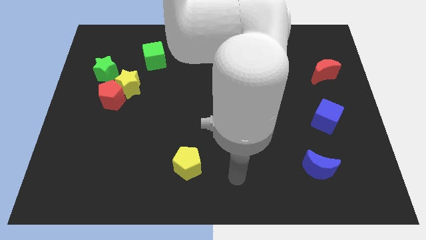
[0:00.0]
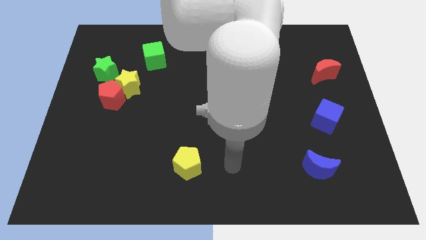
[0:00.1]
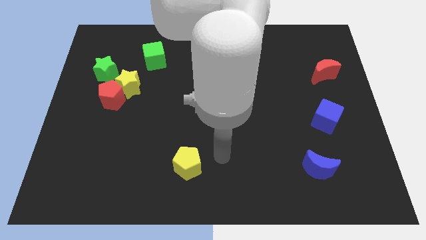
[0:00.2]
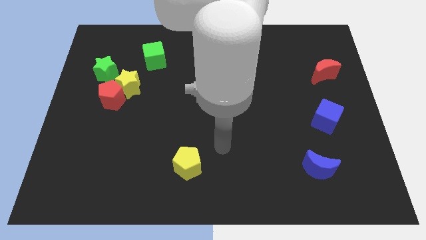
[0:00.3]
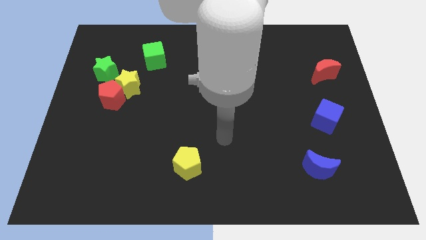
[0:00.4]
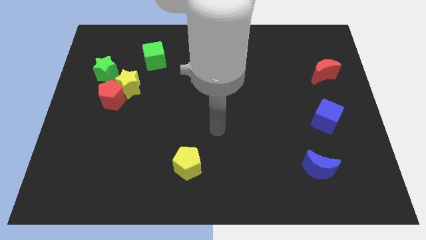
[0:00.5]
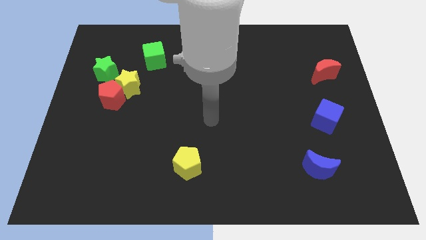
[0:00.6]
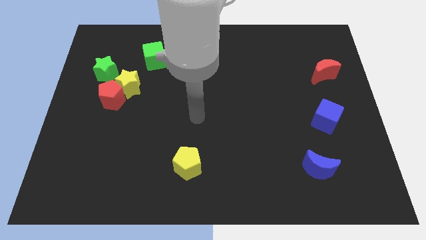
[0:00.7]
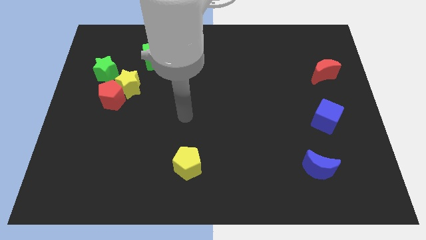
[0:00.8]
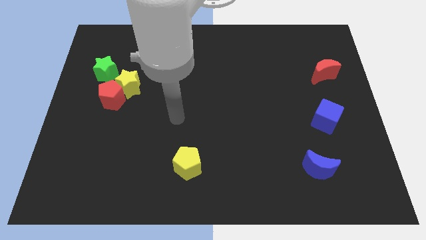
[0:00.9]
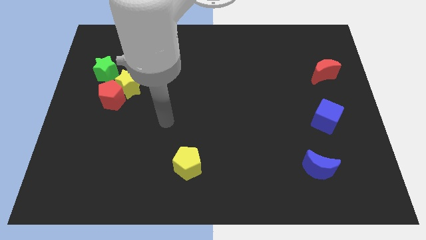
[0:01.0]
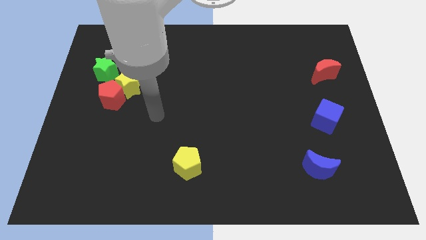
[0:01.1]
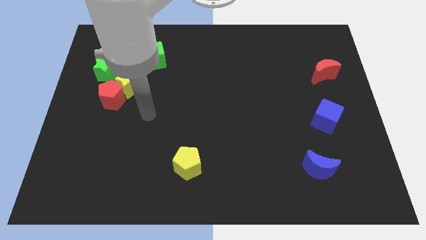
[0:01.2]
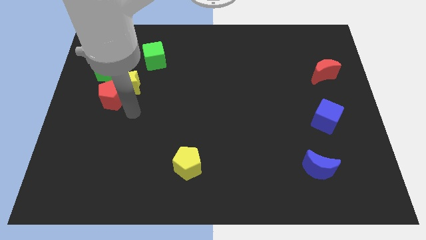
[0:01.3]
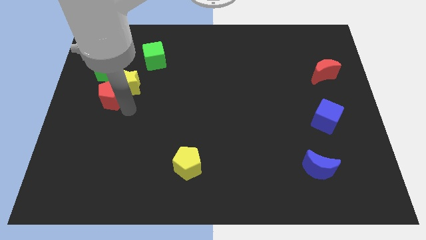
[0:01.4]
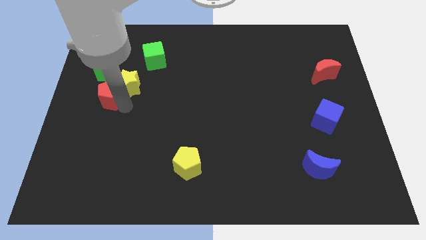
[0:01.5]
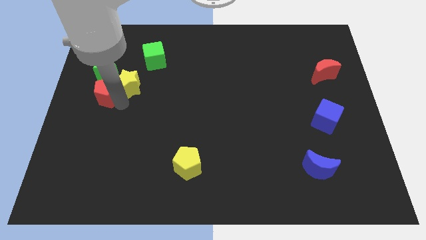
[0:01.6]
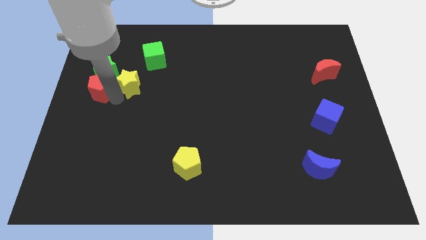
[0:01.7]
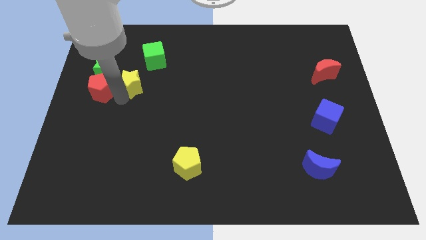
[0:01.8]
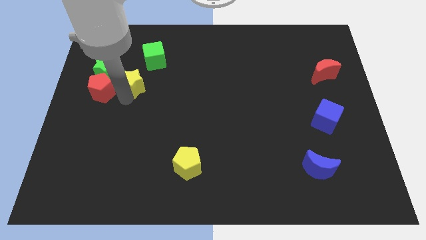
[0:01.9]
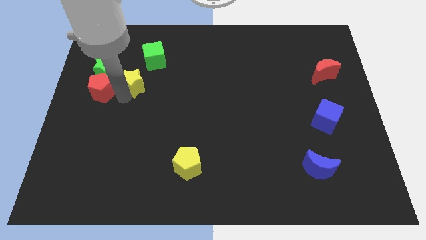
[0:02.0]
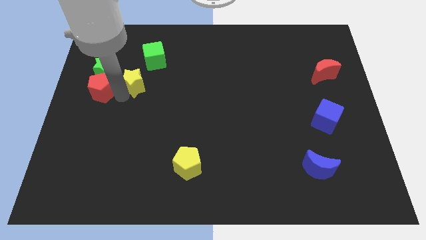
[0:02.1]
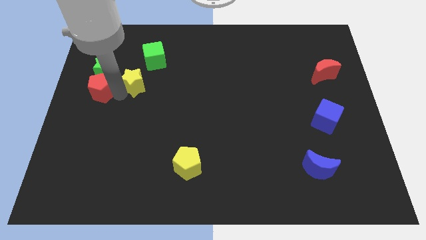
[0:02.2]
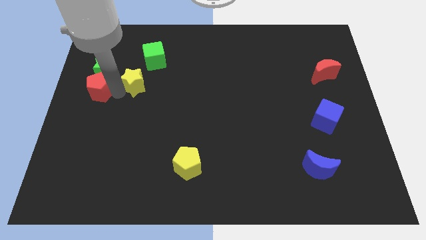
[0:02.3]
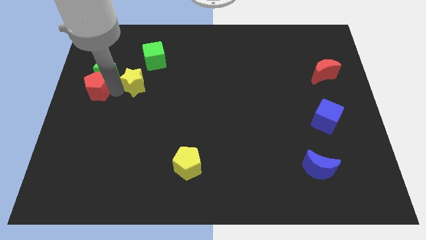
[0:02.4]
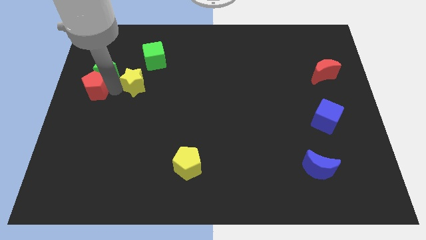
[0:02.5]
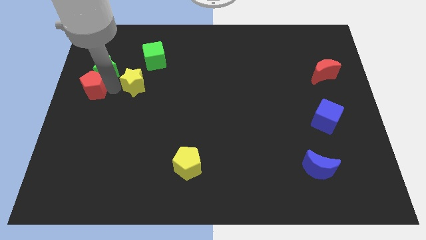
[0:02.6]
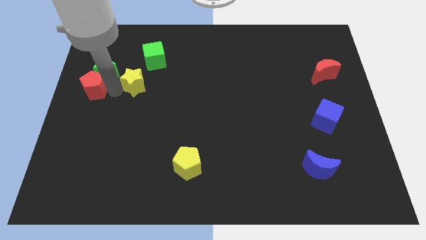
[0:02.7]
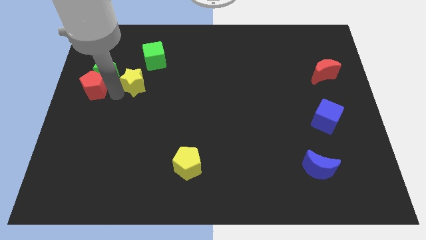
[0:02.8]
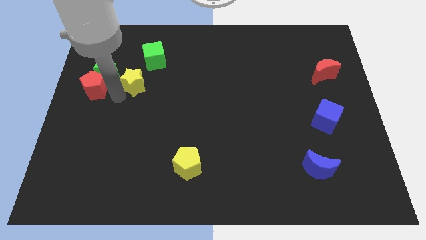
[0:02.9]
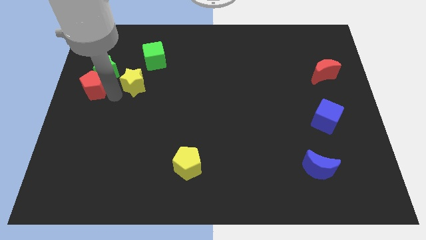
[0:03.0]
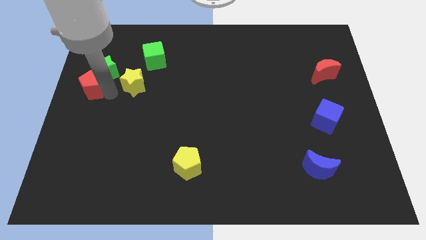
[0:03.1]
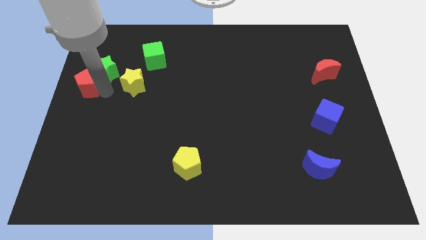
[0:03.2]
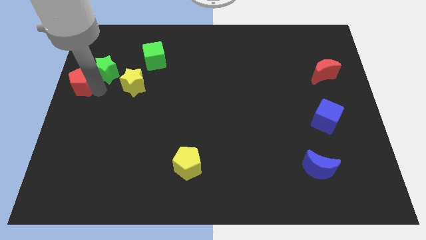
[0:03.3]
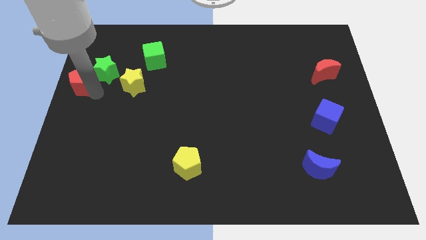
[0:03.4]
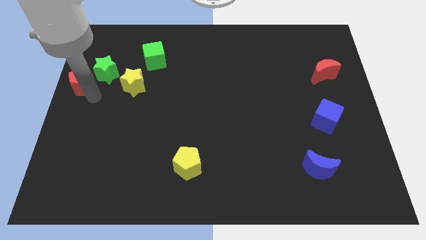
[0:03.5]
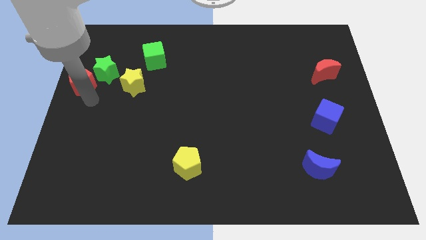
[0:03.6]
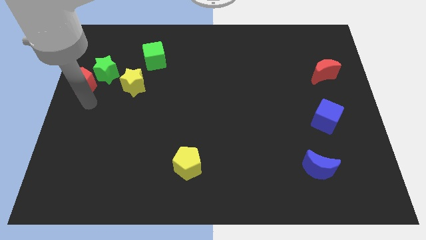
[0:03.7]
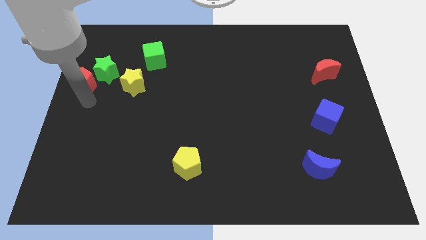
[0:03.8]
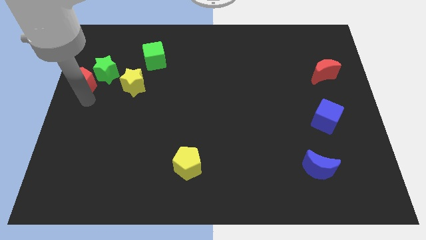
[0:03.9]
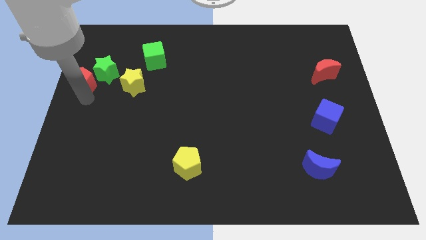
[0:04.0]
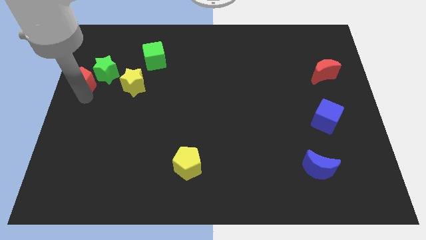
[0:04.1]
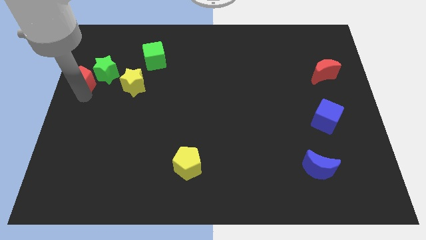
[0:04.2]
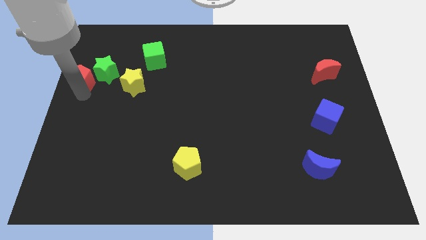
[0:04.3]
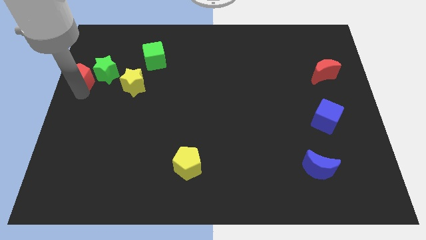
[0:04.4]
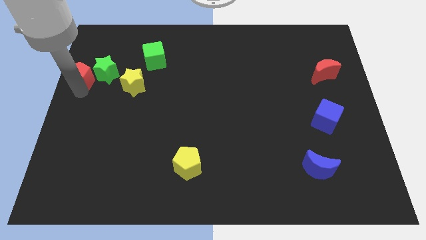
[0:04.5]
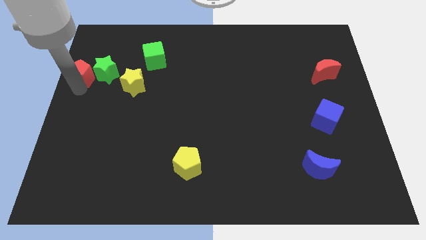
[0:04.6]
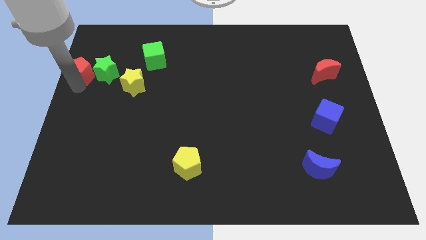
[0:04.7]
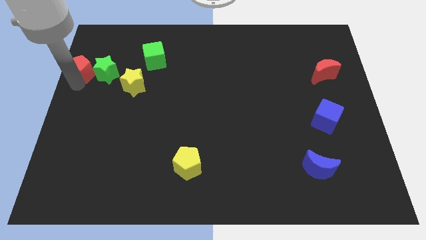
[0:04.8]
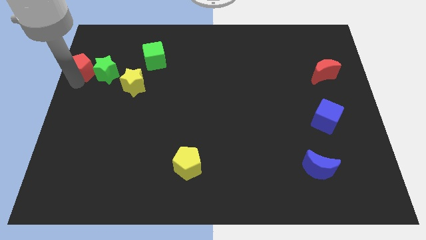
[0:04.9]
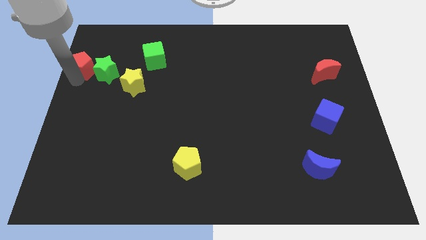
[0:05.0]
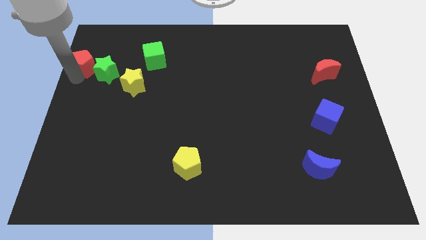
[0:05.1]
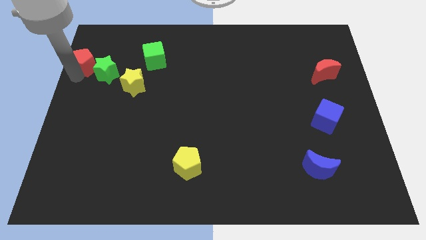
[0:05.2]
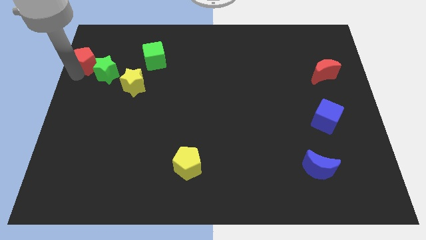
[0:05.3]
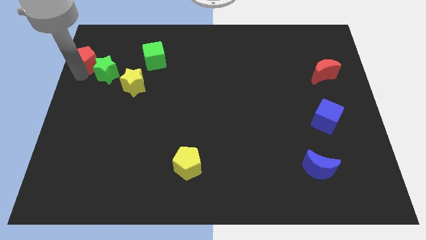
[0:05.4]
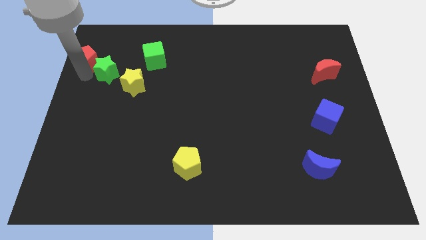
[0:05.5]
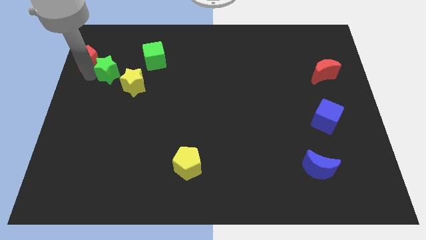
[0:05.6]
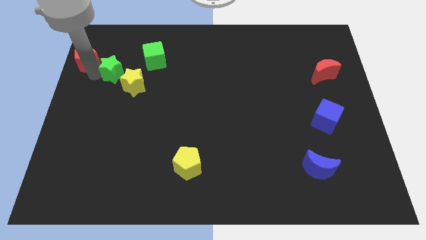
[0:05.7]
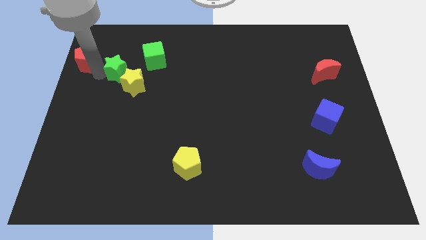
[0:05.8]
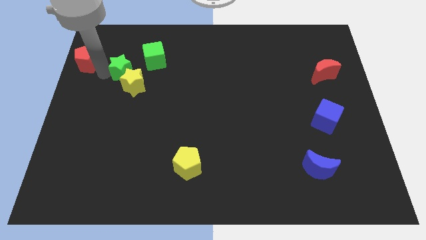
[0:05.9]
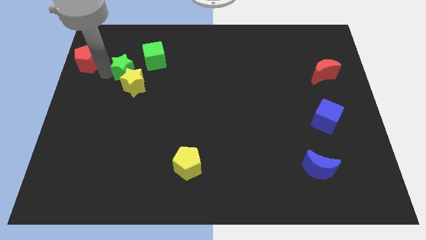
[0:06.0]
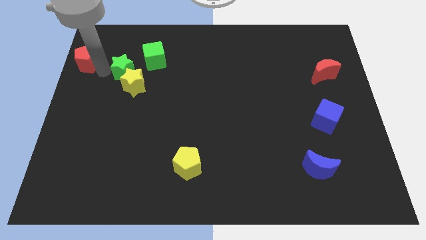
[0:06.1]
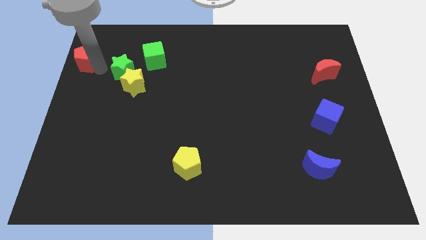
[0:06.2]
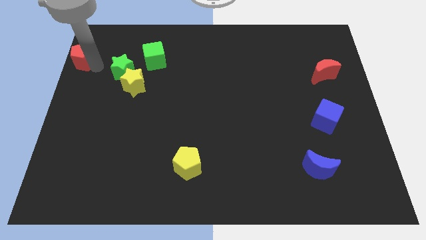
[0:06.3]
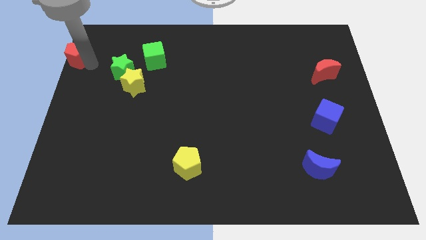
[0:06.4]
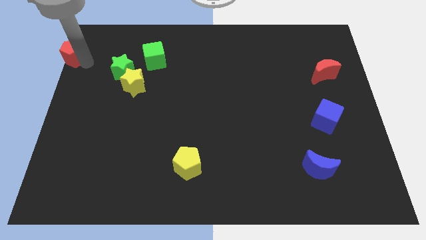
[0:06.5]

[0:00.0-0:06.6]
push the red pentagon to the top left
